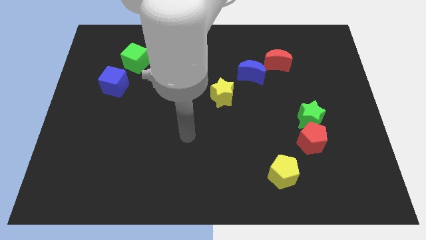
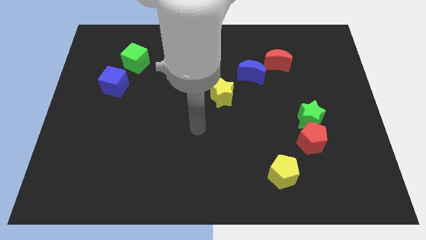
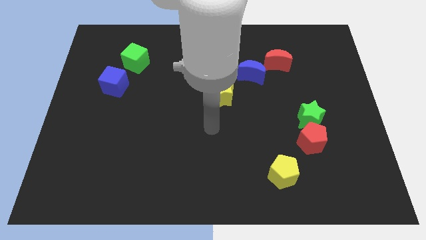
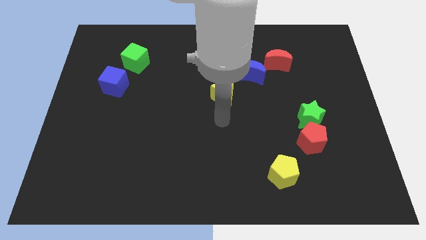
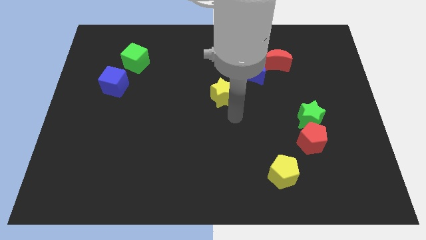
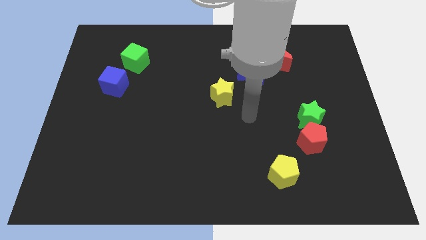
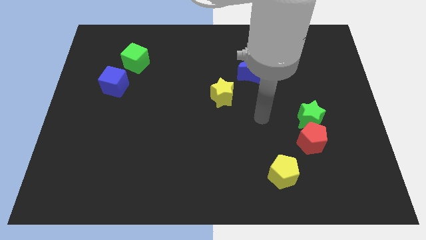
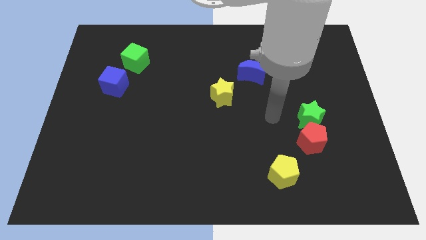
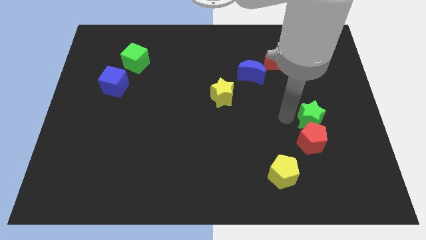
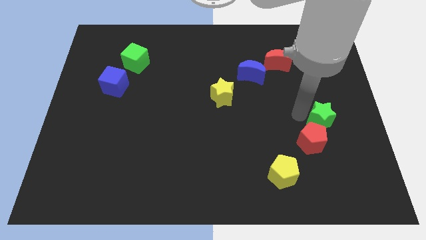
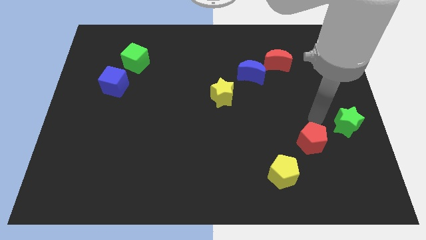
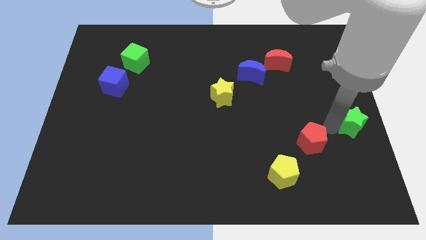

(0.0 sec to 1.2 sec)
separate the red pentagon from the green star

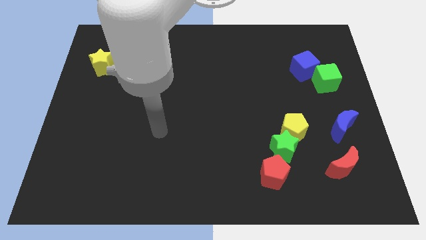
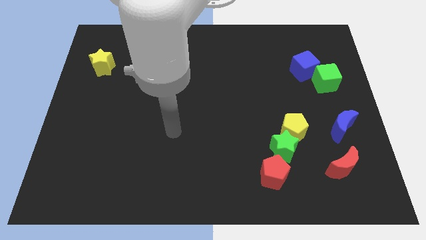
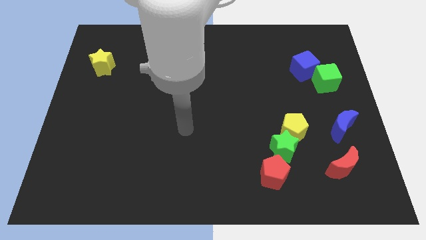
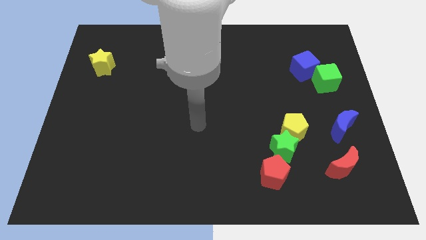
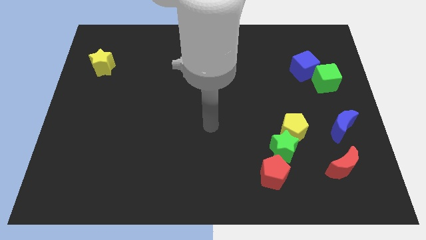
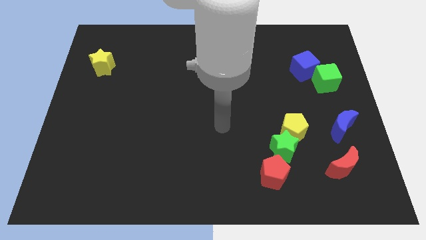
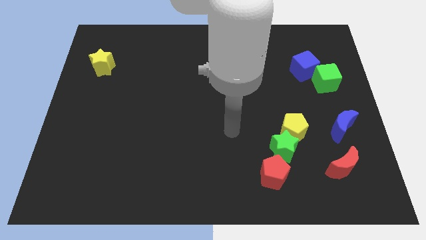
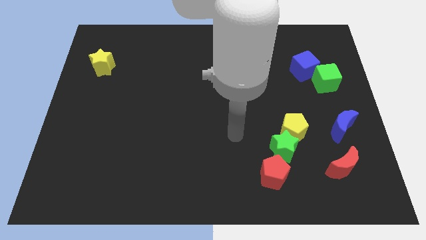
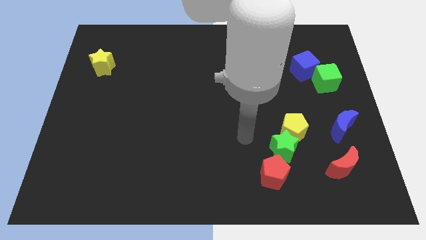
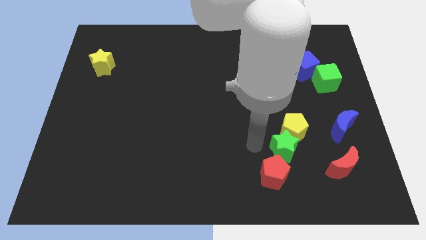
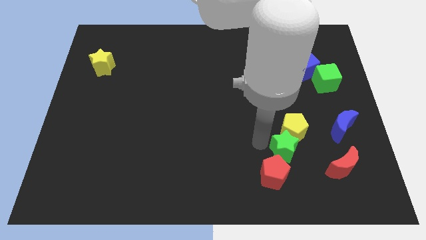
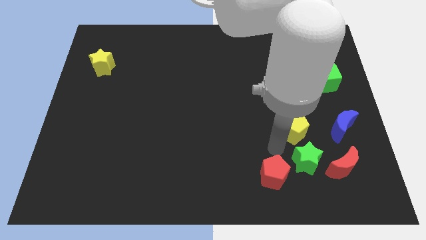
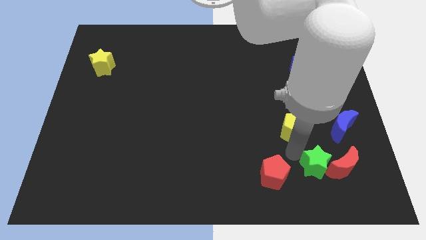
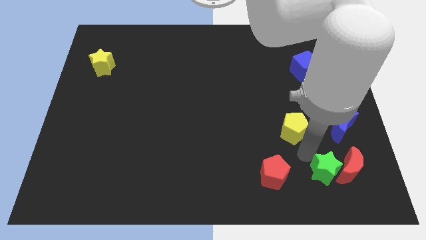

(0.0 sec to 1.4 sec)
move the yellow pentagon away from the green star

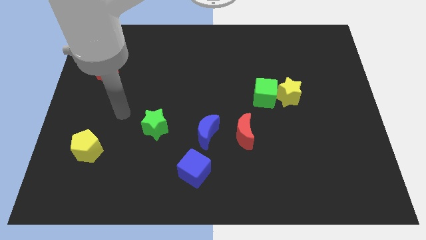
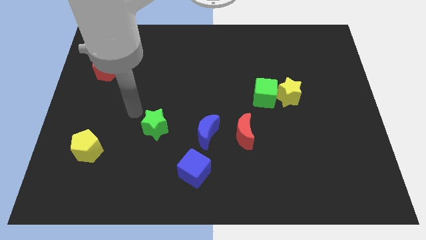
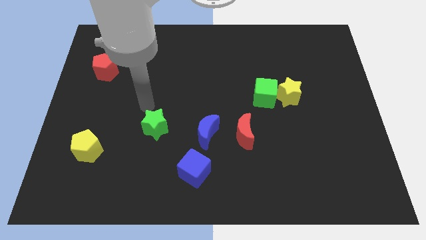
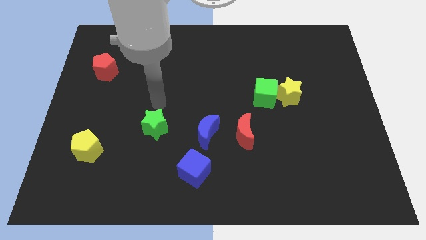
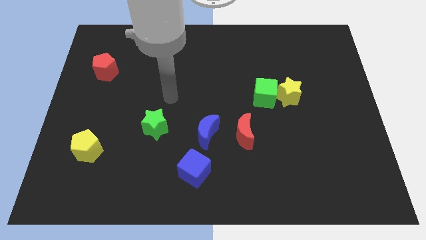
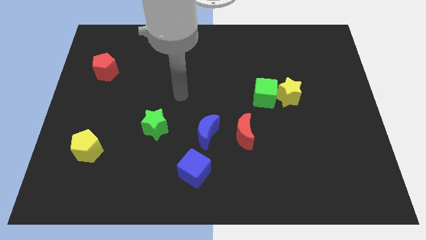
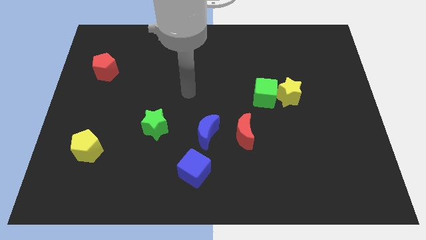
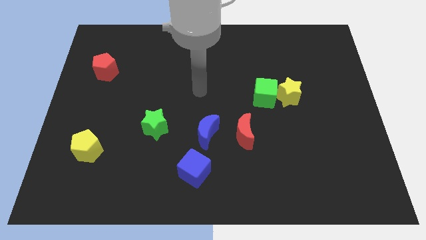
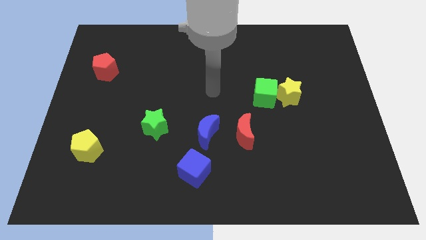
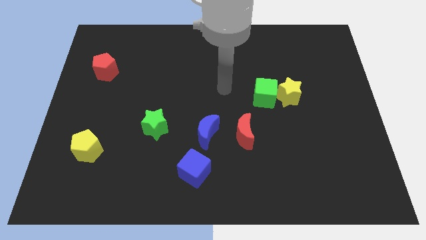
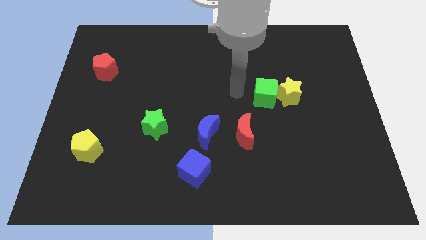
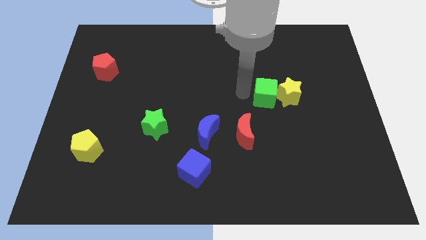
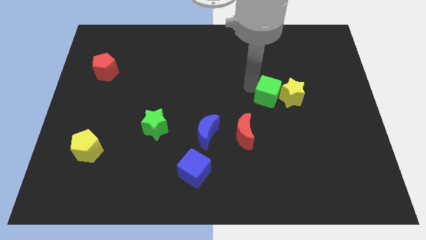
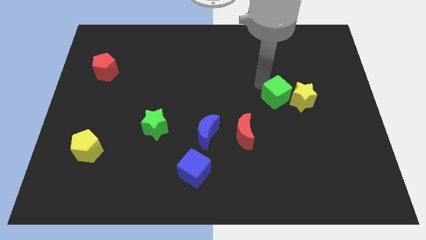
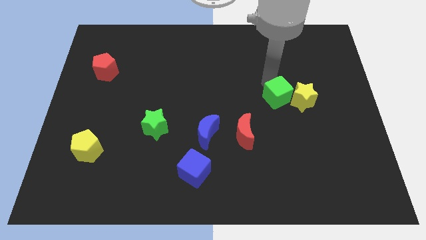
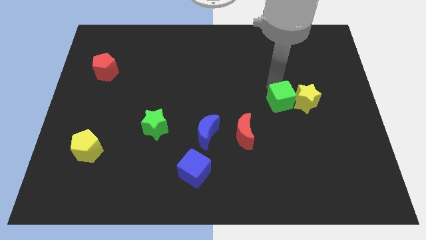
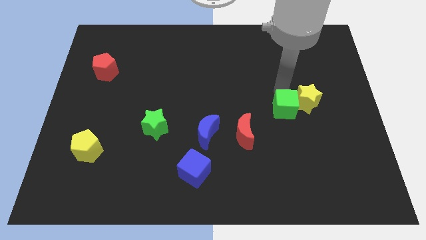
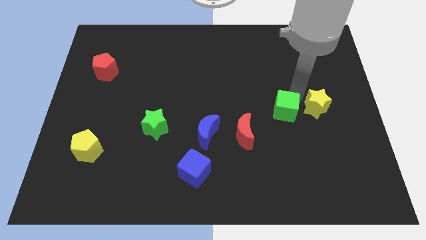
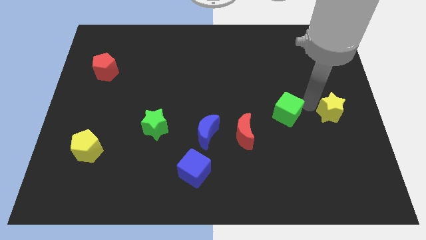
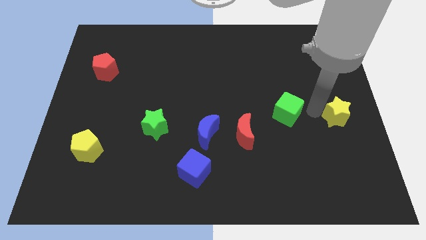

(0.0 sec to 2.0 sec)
separate the green cube from the yellow star

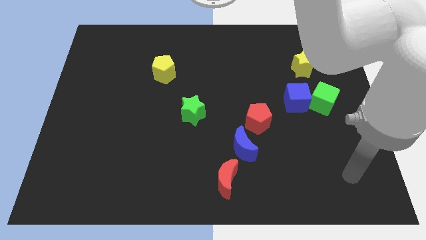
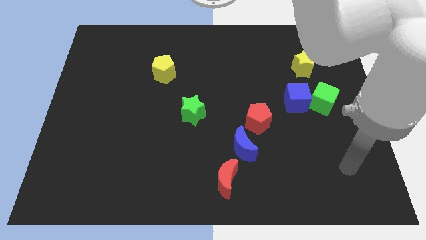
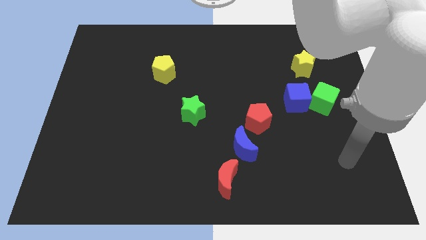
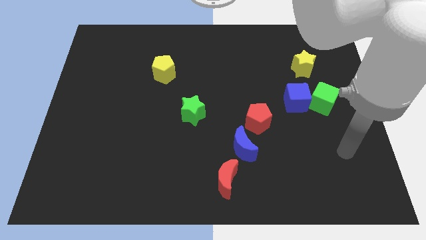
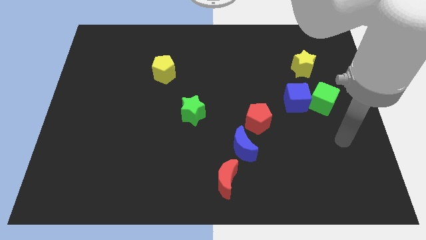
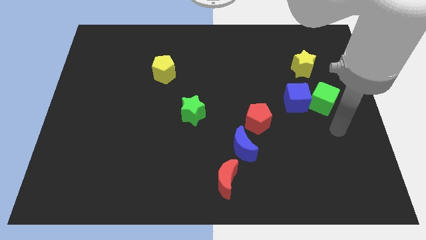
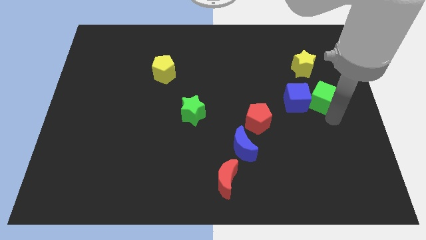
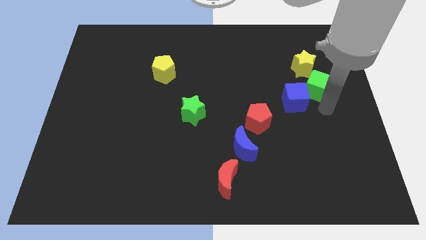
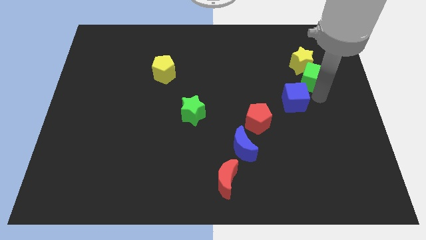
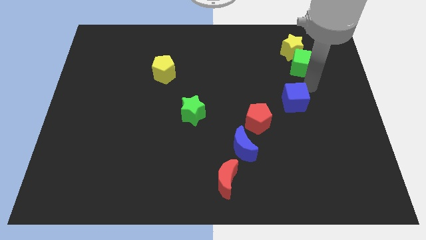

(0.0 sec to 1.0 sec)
move the blue cube away from the green cube

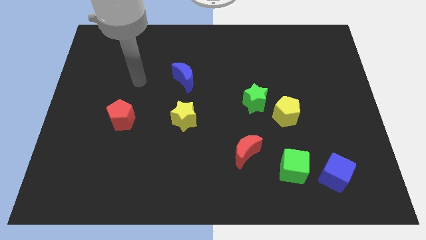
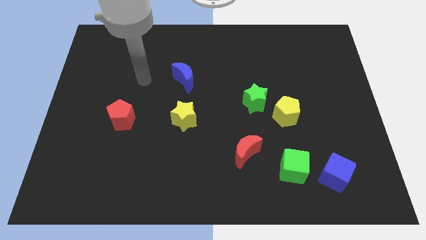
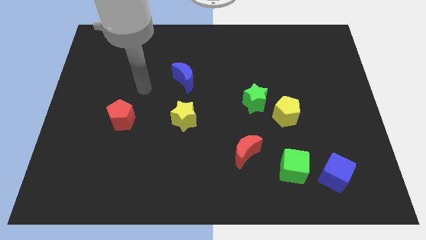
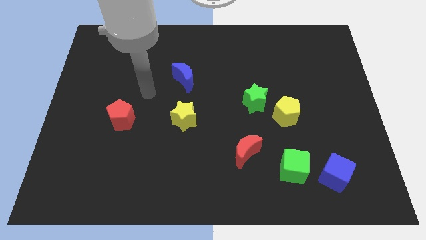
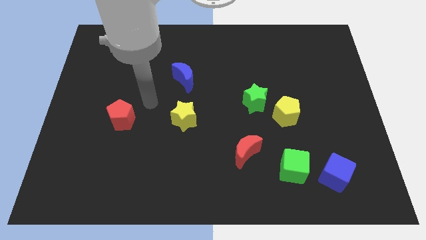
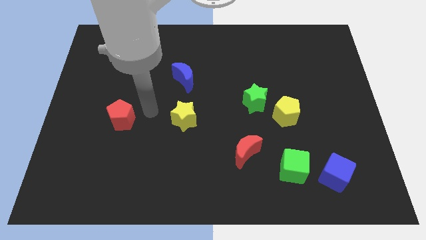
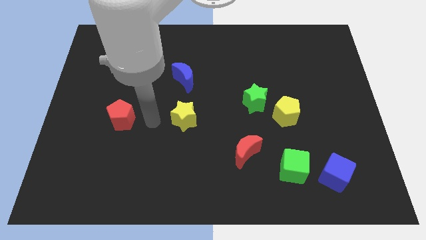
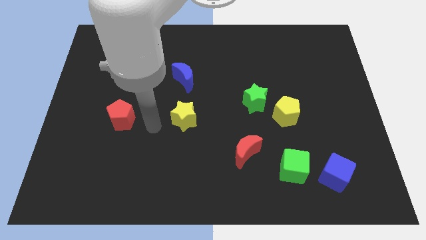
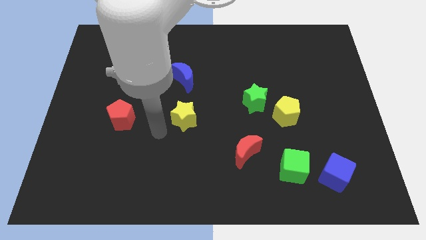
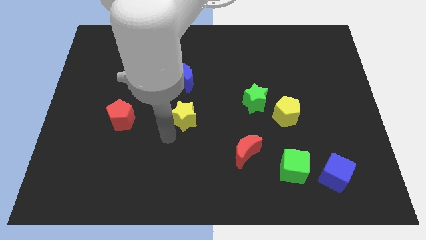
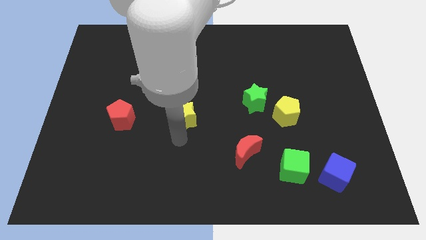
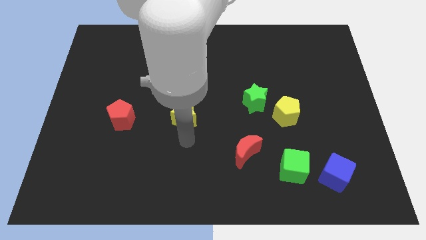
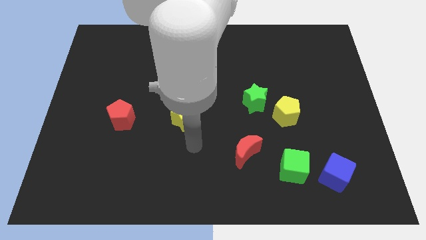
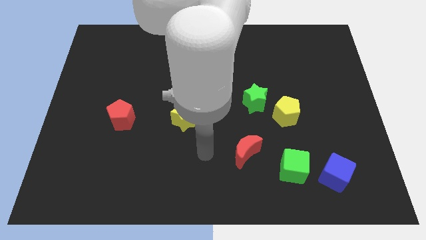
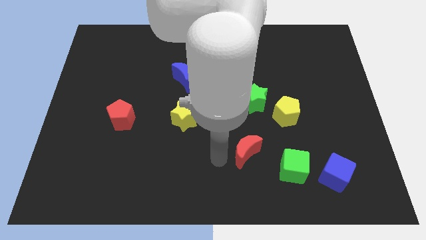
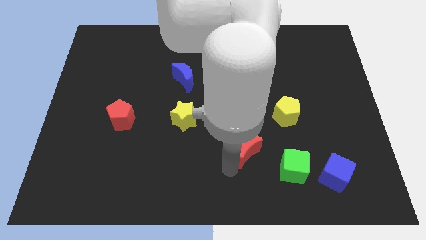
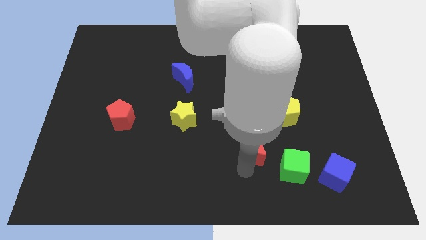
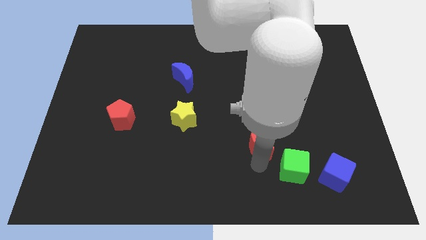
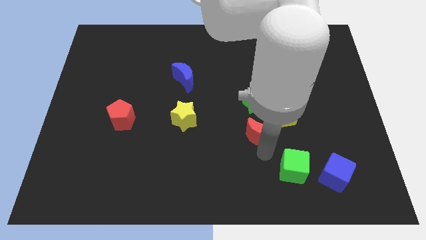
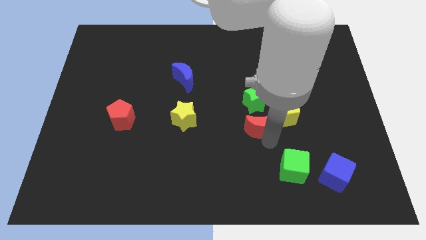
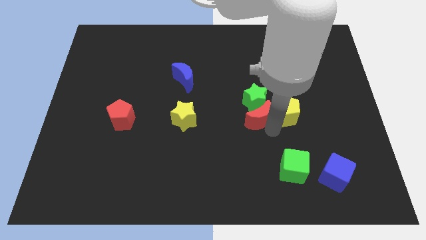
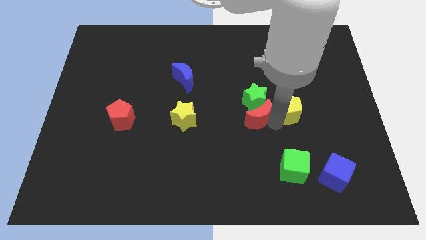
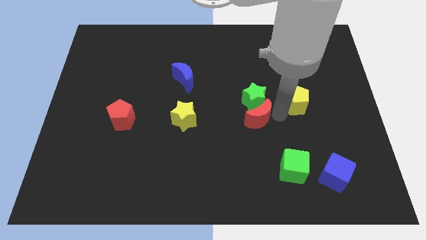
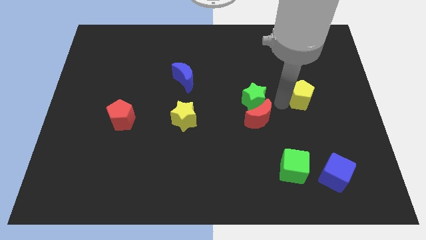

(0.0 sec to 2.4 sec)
separate the green star from the yellow pentagon

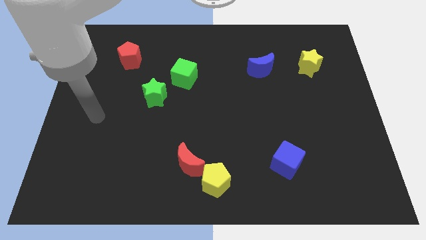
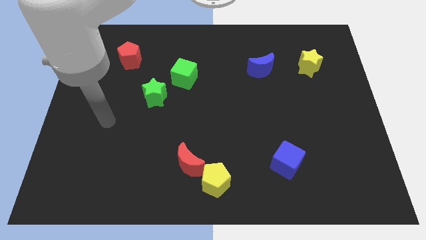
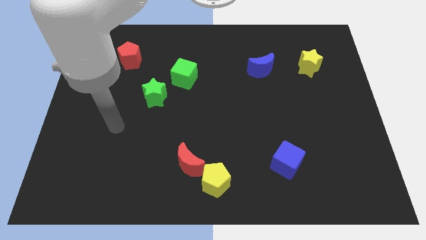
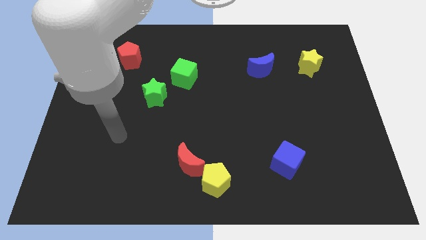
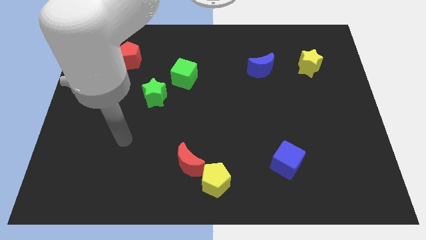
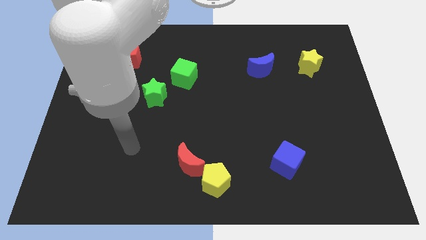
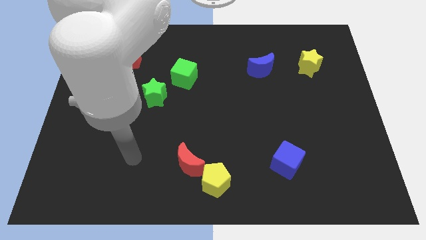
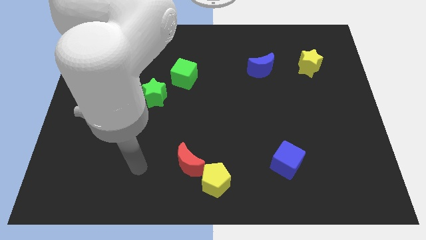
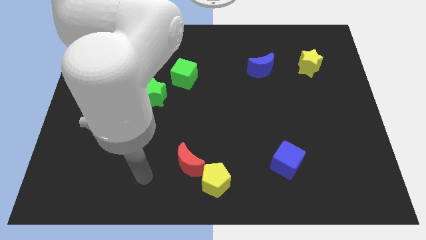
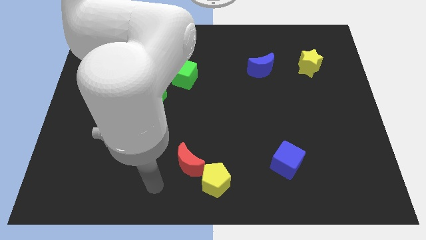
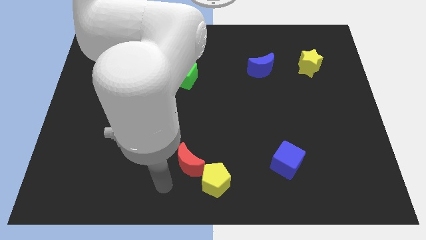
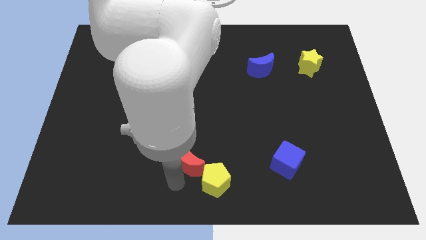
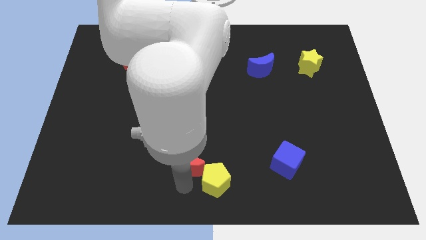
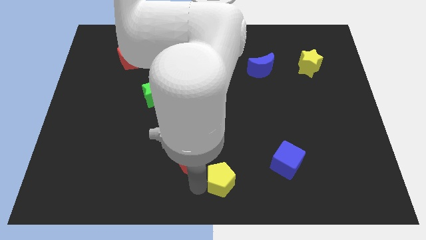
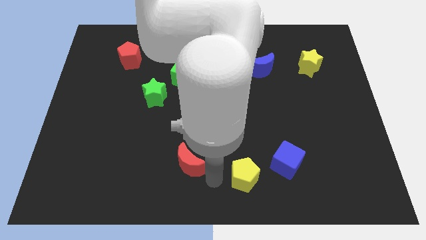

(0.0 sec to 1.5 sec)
pull the red moon apart from the yellow pentagon
